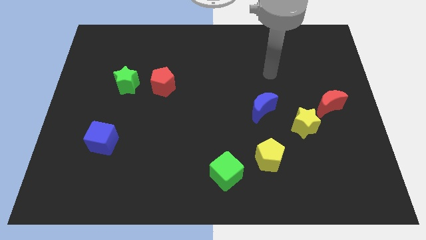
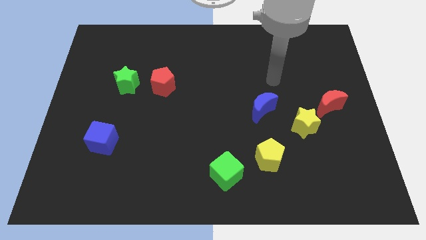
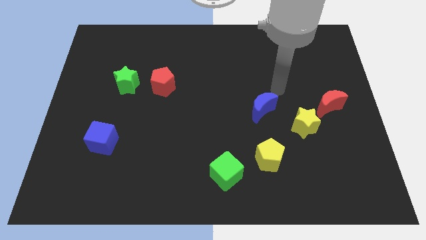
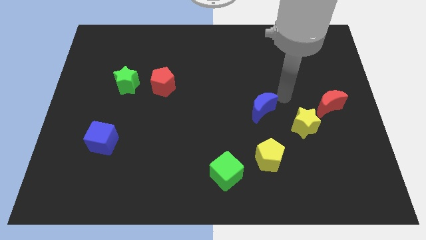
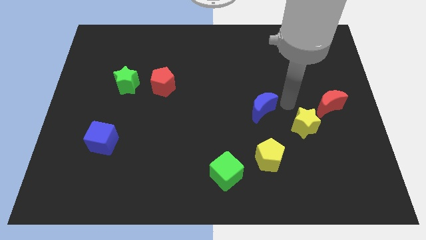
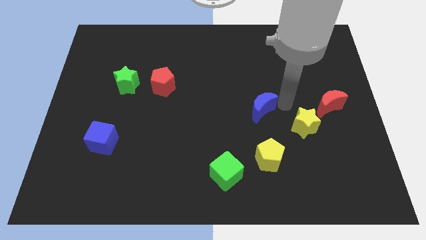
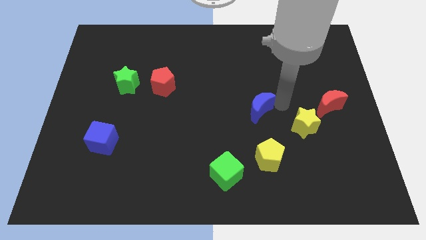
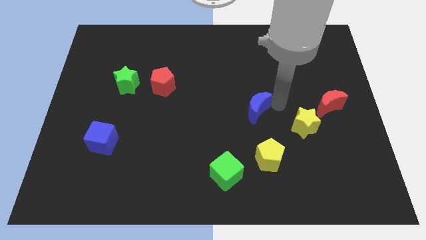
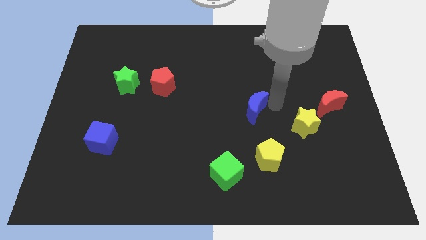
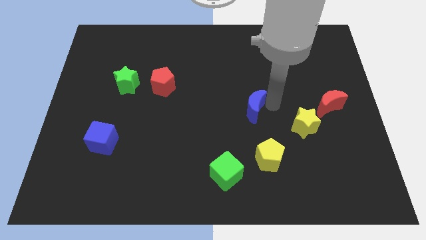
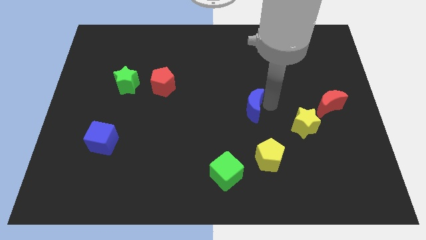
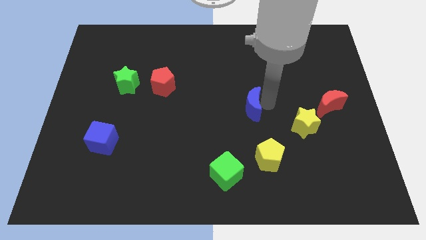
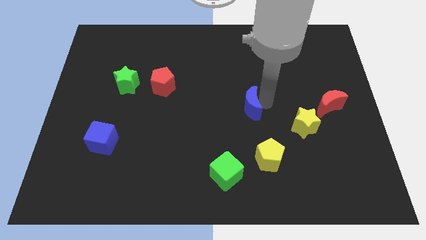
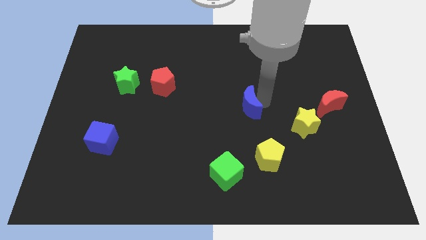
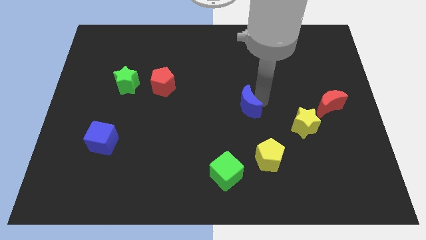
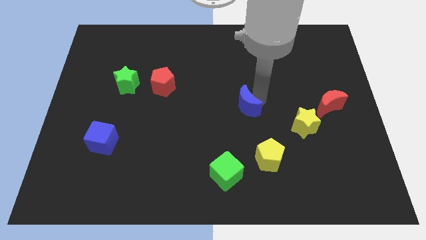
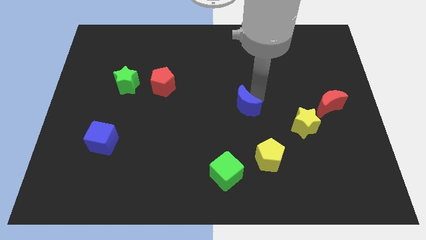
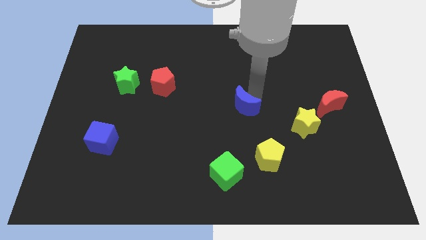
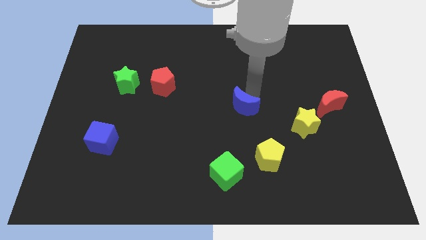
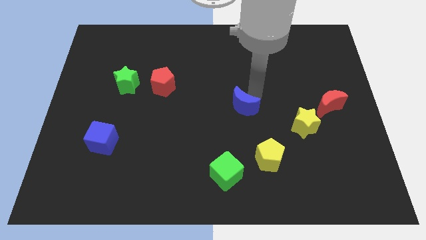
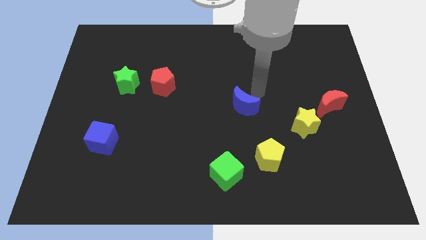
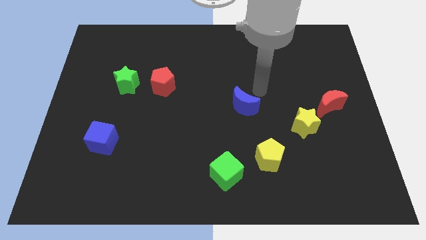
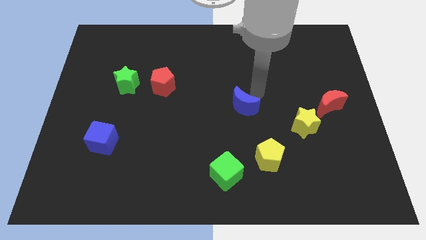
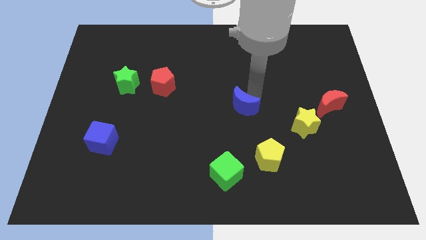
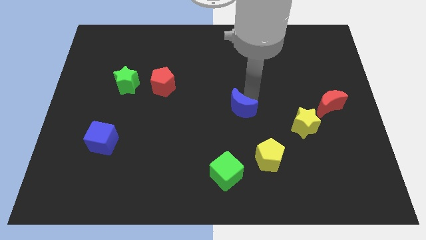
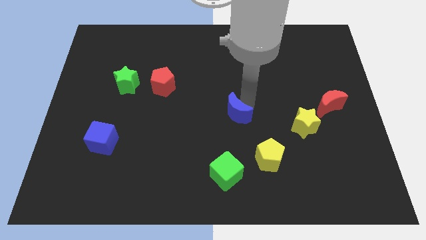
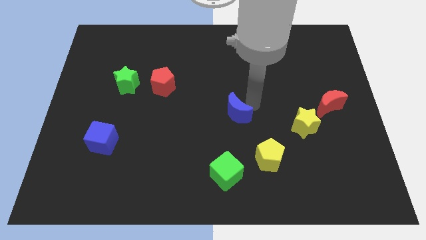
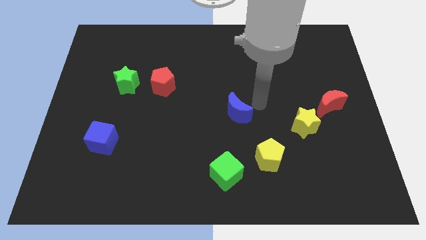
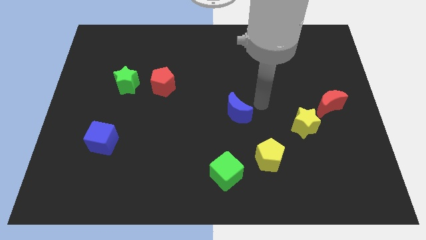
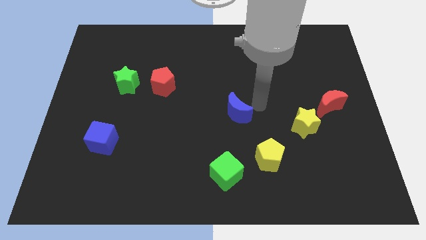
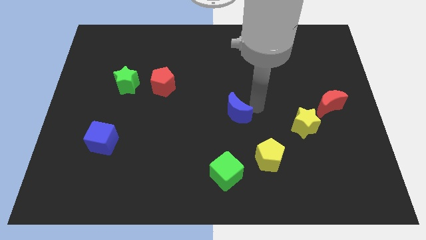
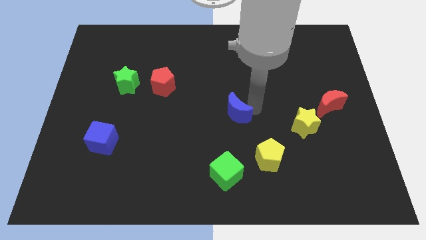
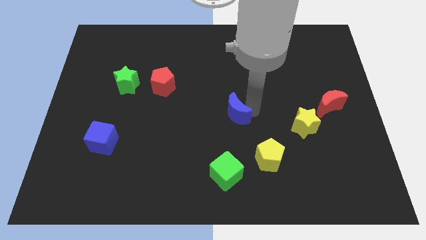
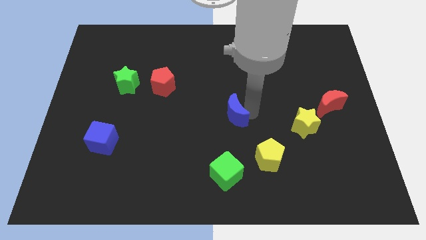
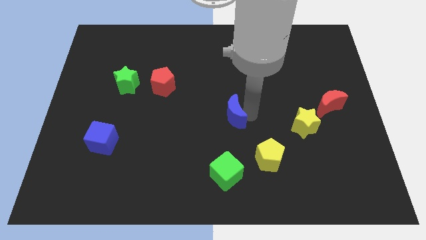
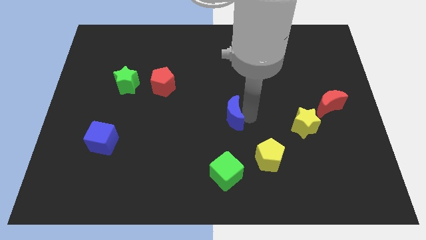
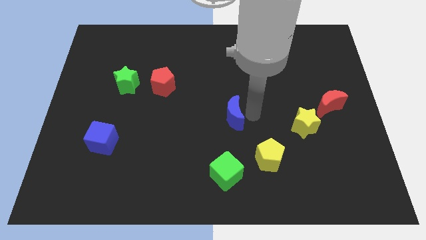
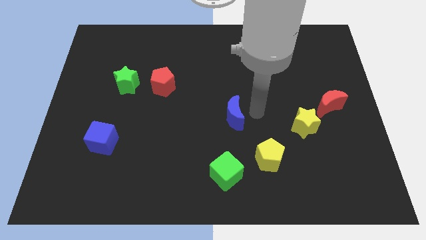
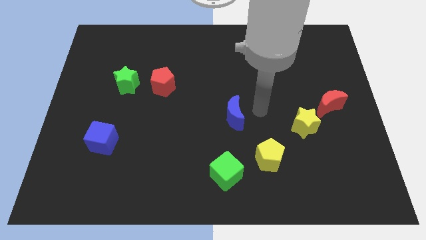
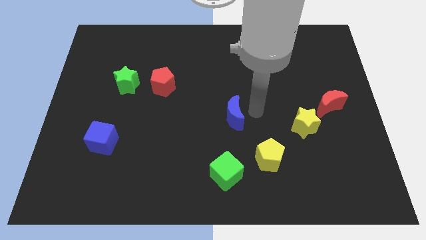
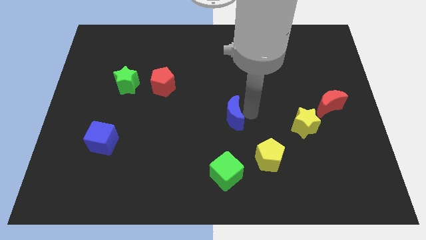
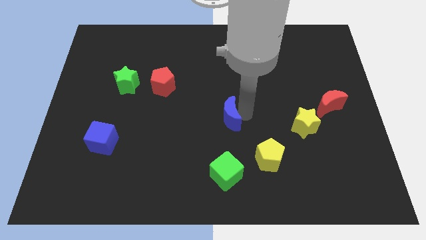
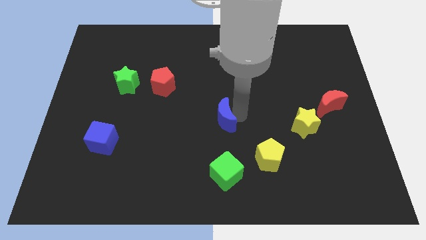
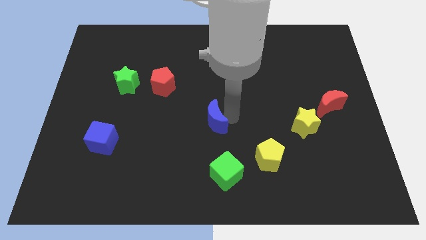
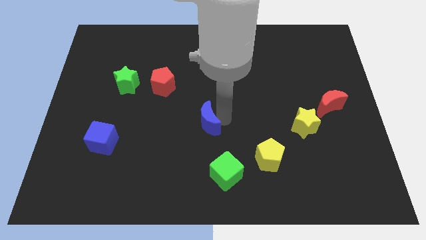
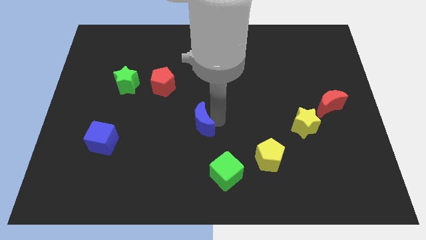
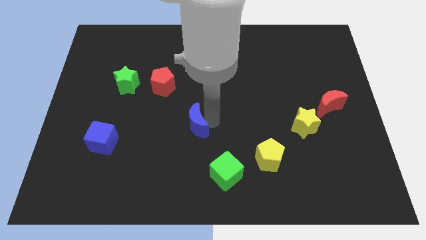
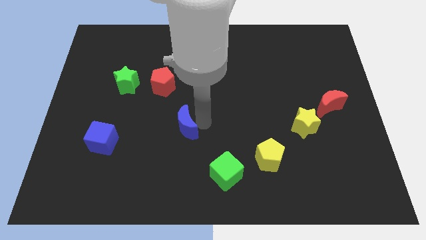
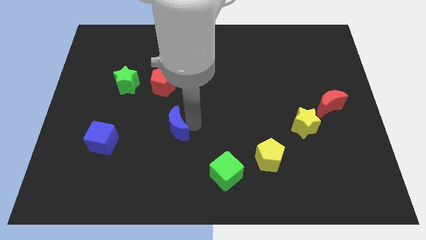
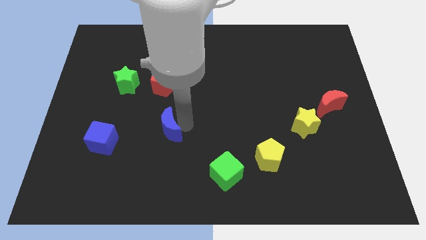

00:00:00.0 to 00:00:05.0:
put the blue moon just right of the blue cube

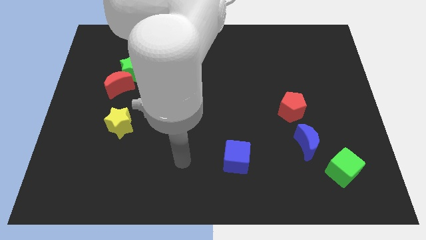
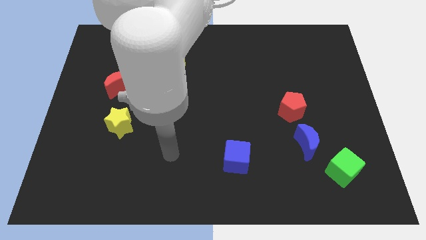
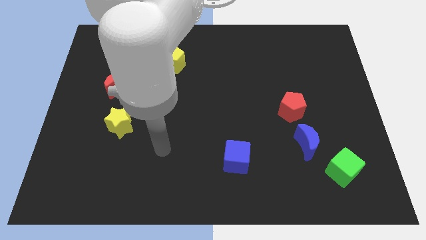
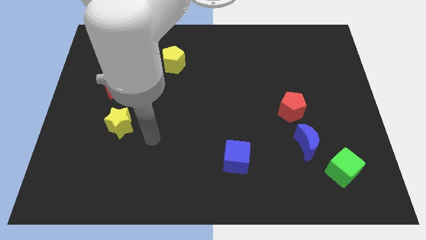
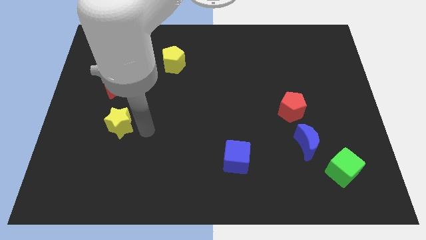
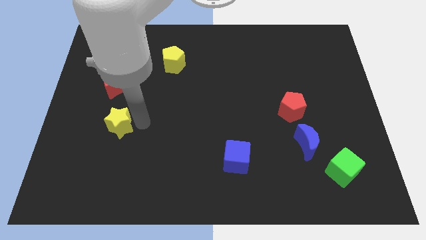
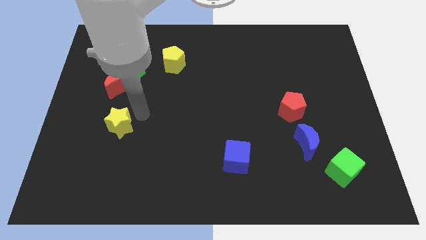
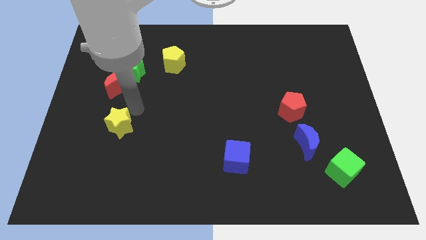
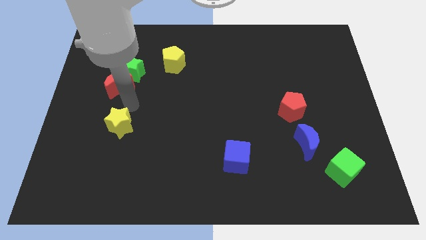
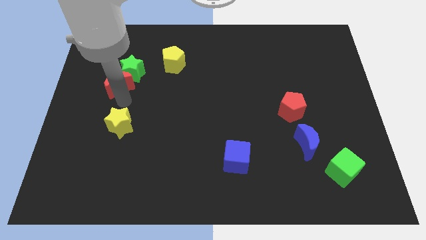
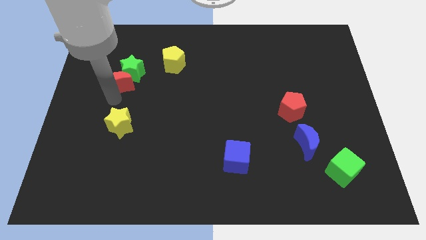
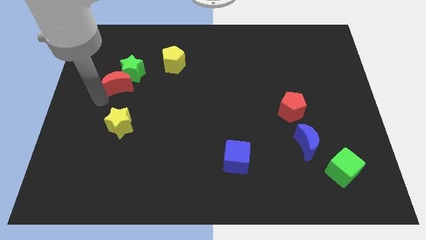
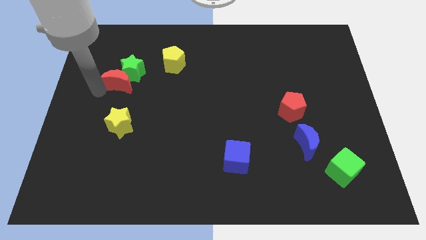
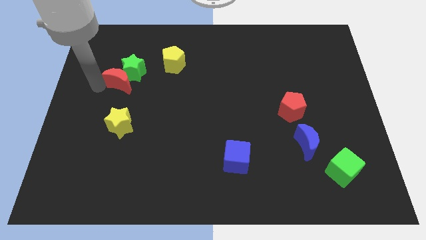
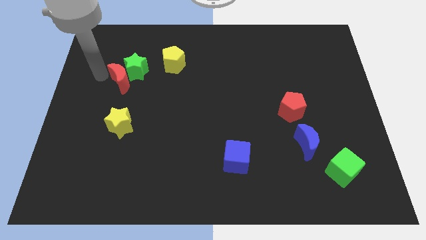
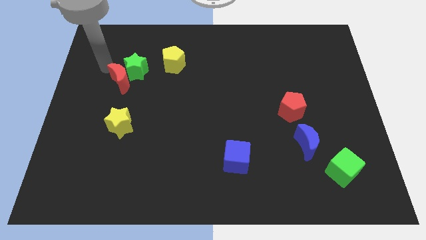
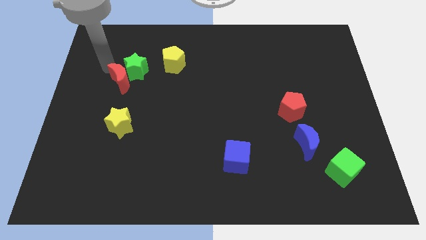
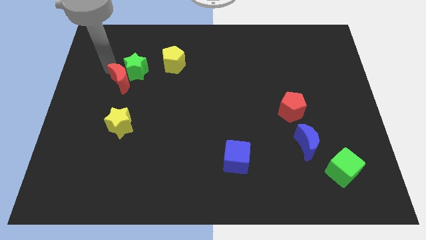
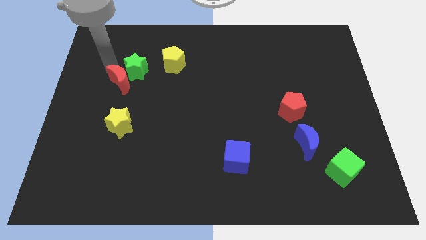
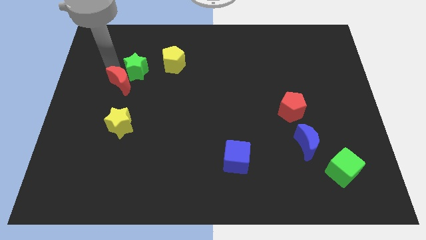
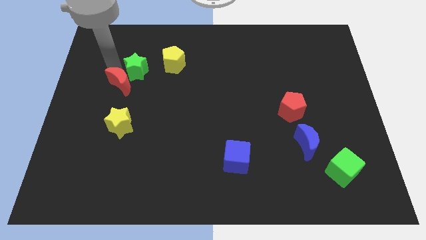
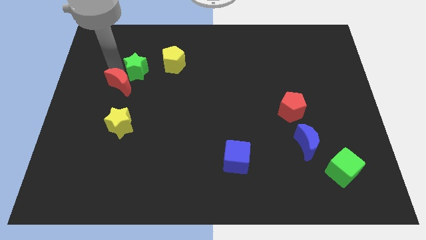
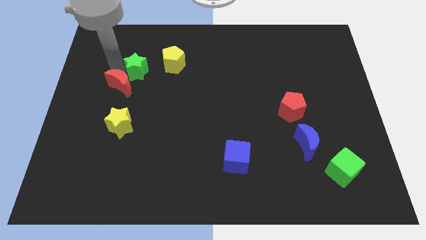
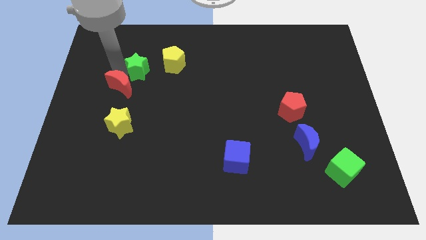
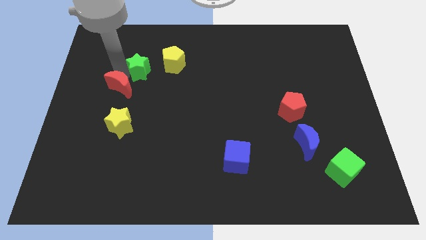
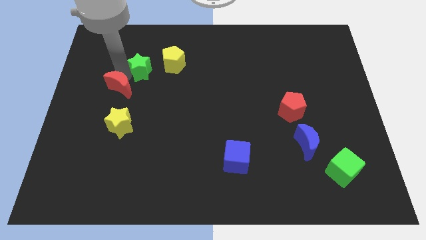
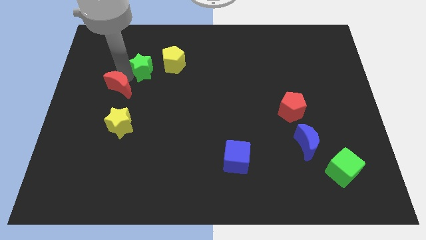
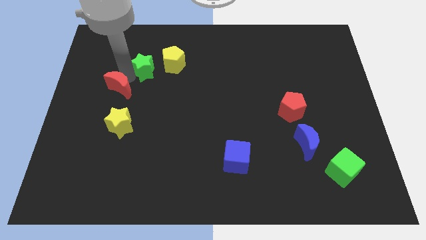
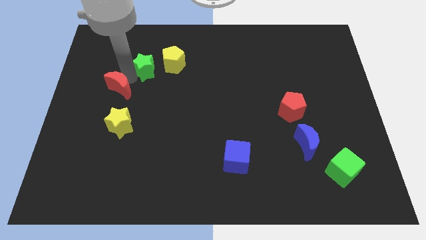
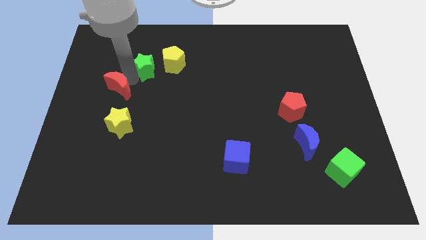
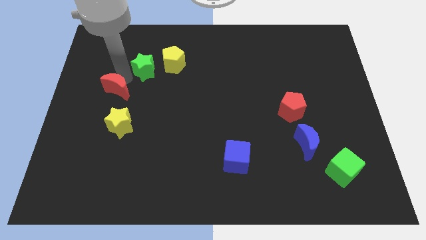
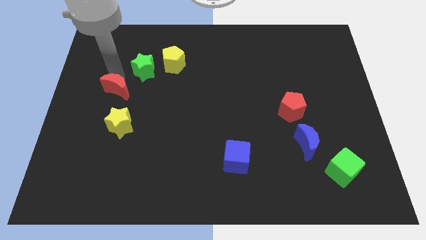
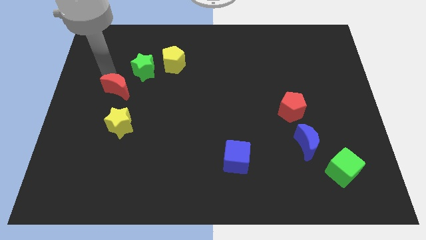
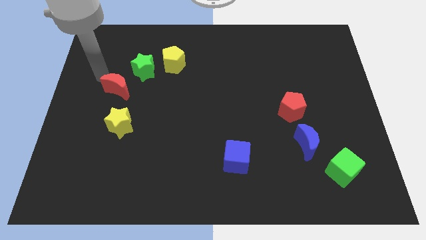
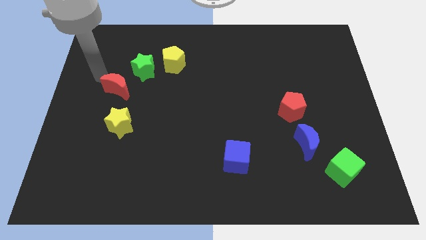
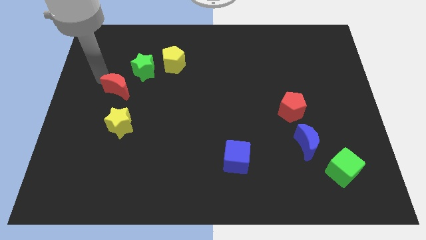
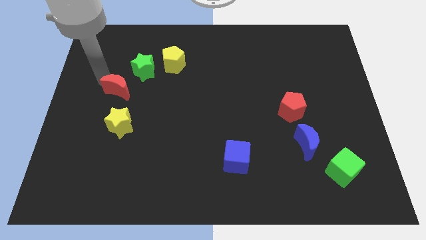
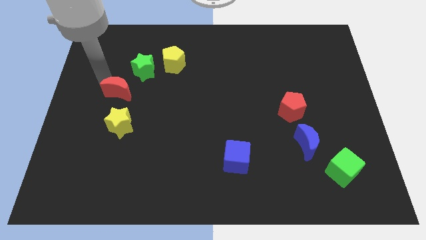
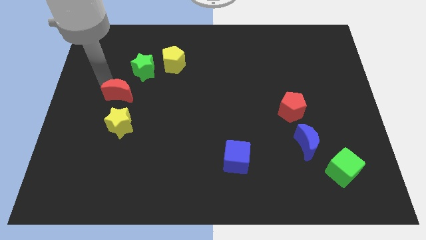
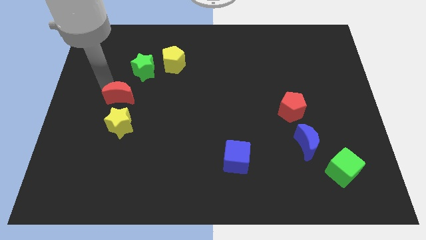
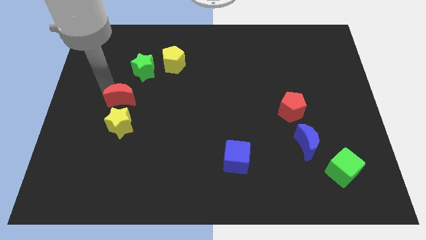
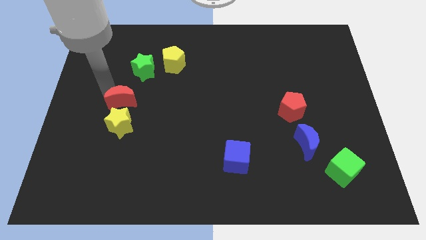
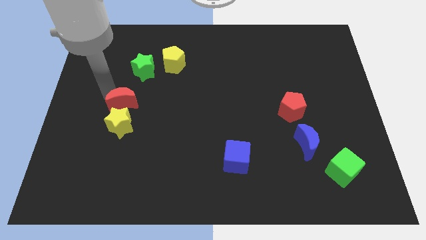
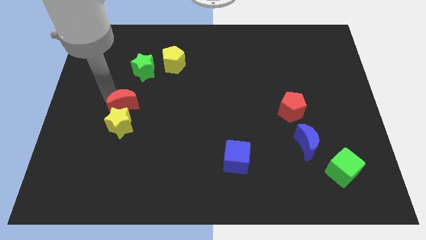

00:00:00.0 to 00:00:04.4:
slide the red moon diagonally up and to the right of the yellow star
